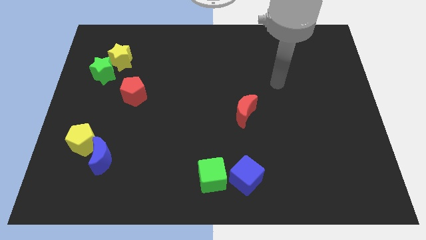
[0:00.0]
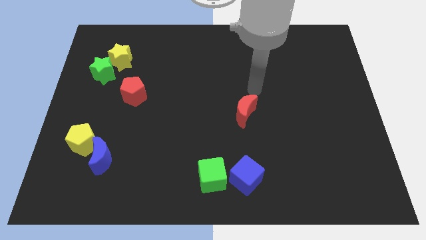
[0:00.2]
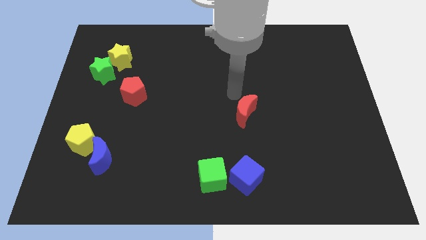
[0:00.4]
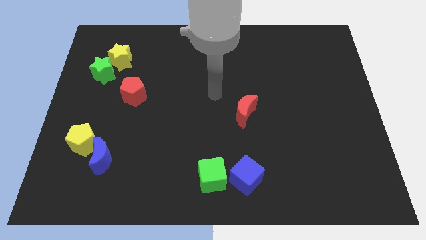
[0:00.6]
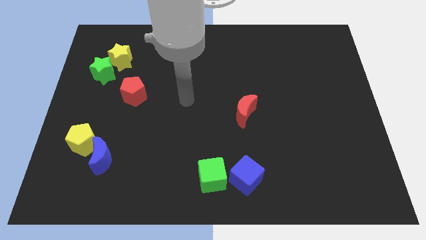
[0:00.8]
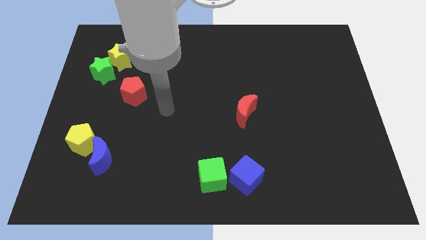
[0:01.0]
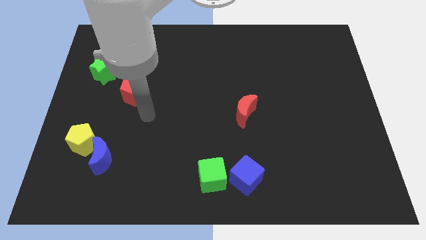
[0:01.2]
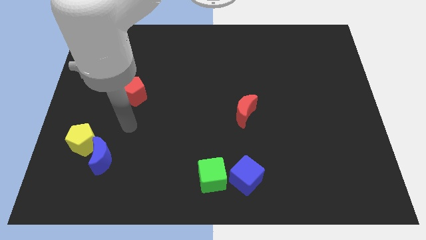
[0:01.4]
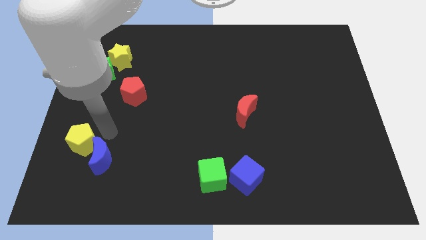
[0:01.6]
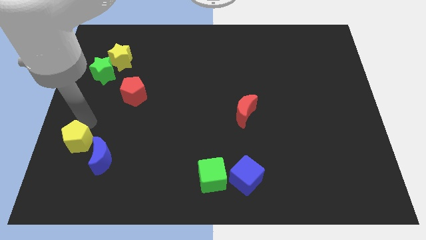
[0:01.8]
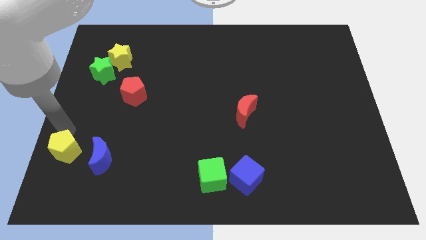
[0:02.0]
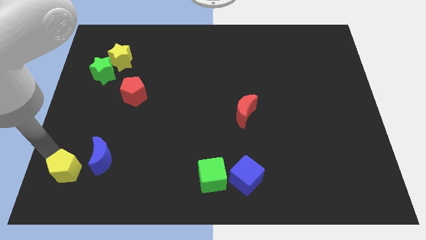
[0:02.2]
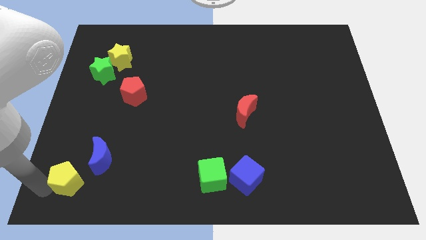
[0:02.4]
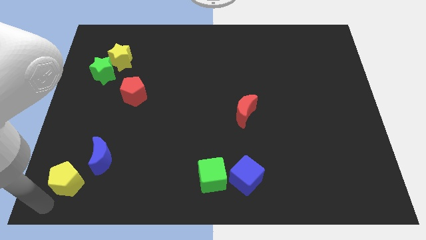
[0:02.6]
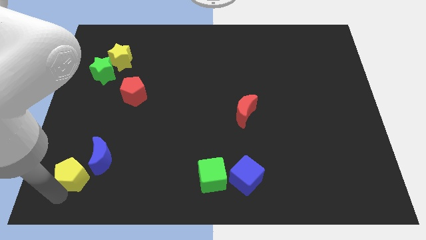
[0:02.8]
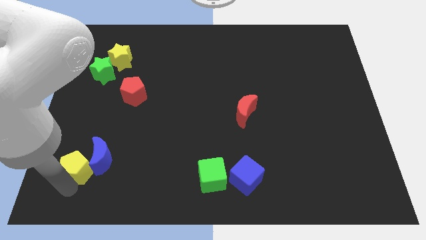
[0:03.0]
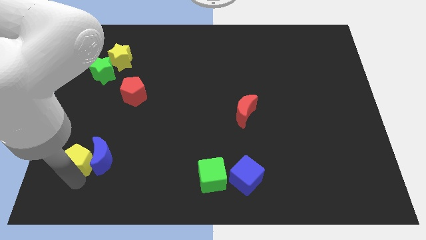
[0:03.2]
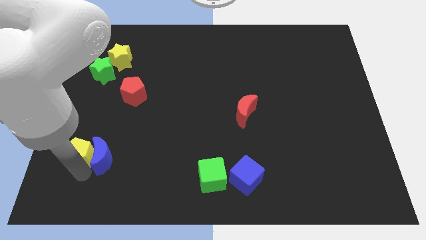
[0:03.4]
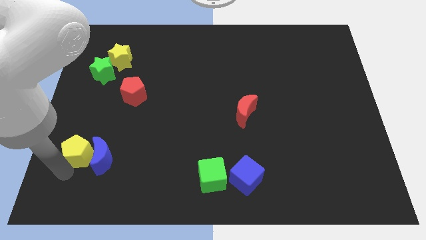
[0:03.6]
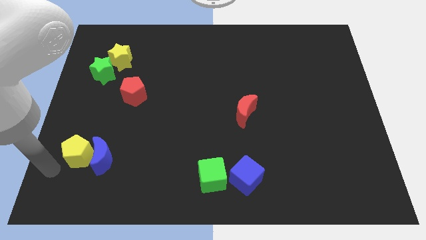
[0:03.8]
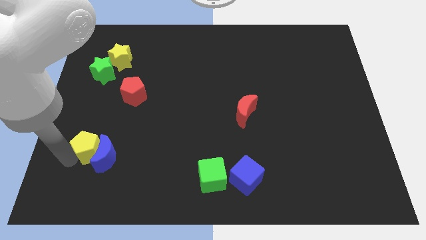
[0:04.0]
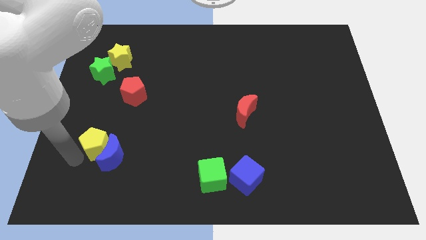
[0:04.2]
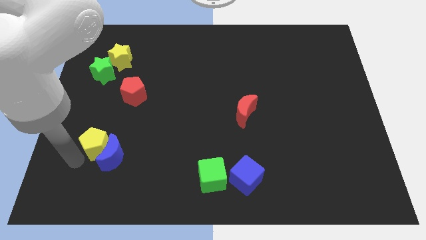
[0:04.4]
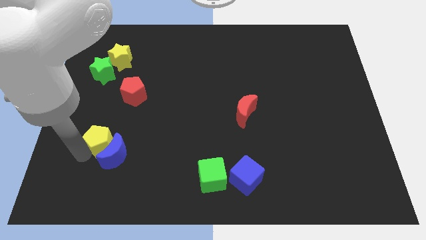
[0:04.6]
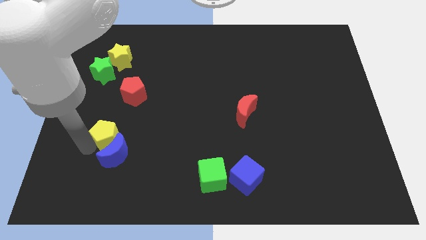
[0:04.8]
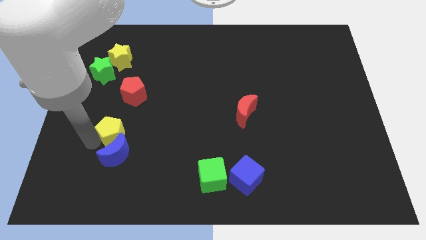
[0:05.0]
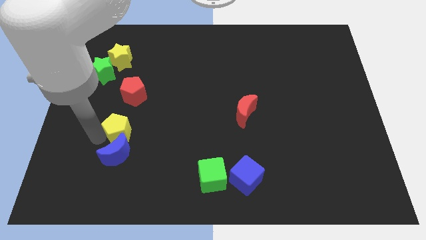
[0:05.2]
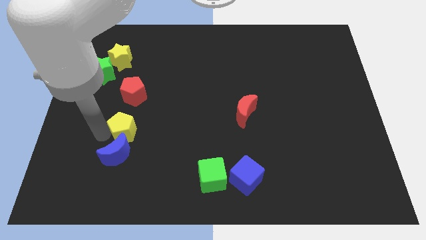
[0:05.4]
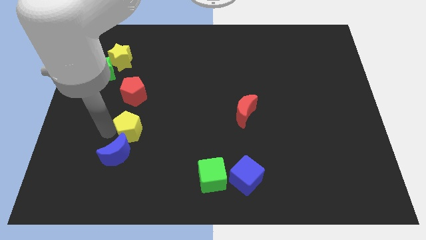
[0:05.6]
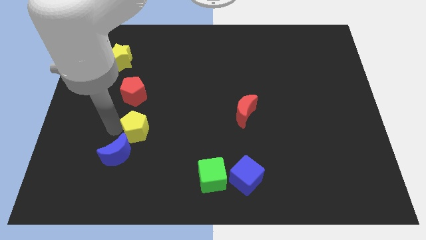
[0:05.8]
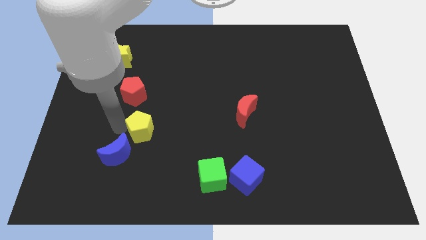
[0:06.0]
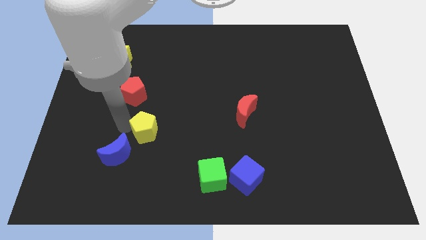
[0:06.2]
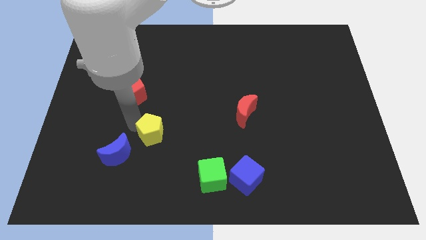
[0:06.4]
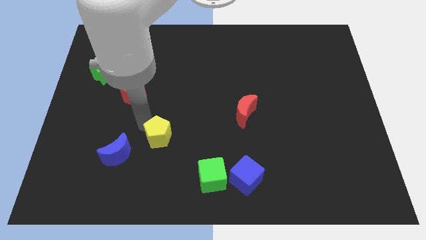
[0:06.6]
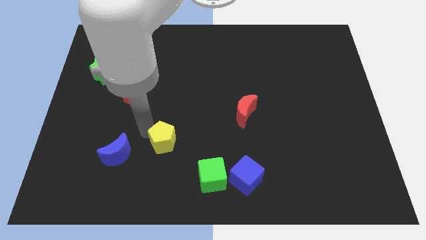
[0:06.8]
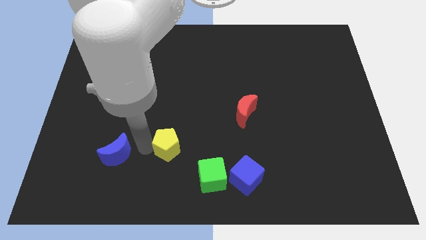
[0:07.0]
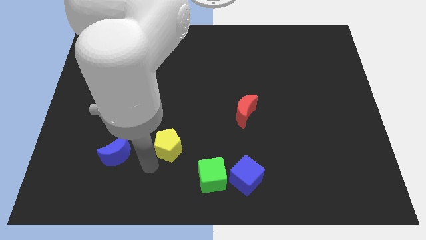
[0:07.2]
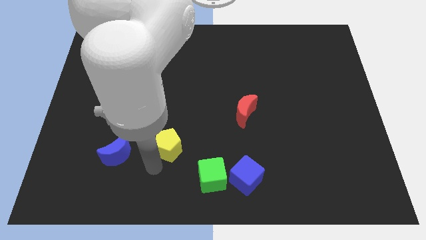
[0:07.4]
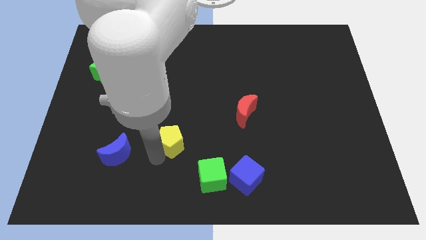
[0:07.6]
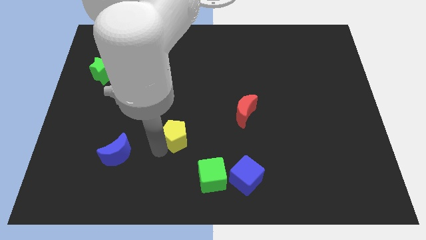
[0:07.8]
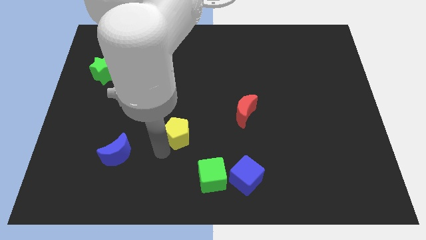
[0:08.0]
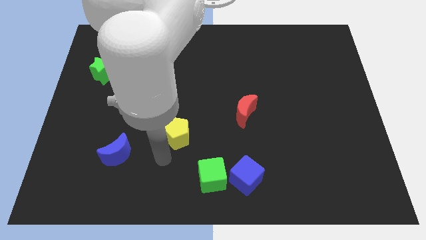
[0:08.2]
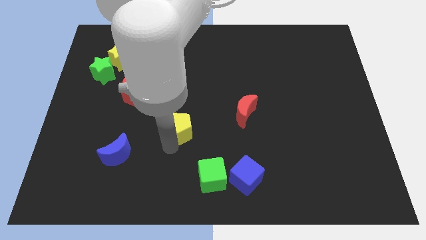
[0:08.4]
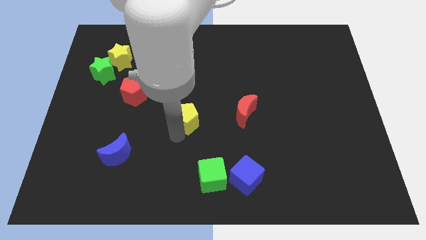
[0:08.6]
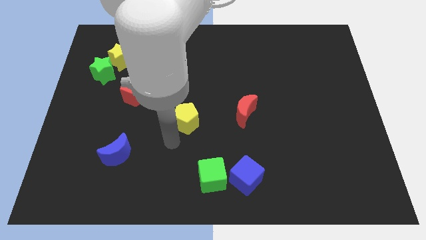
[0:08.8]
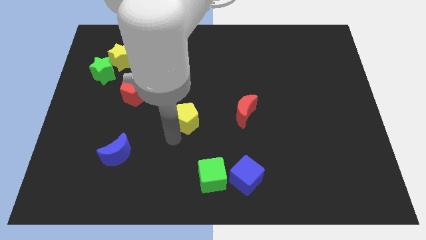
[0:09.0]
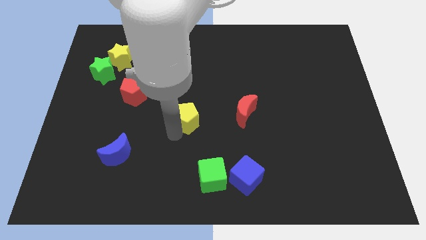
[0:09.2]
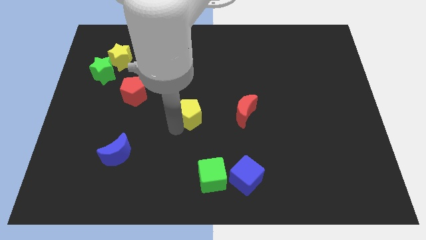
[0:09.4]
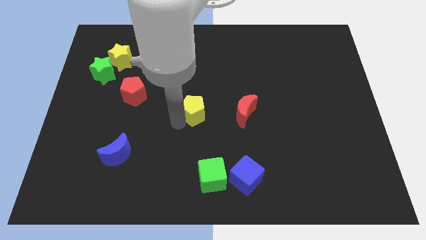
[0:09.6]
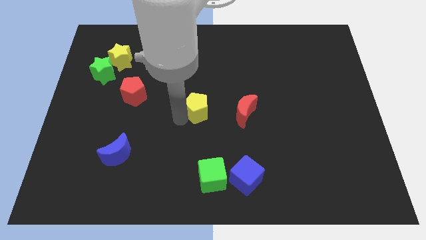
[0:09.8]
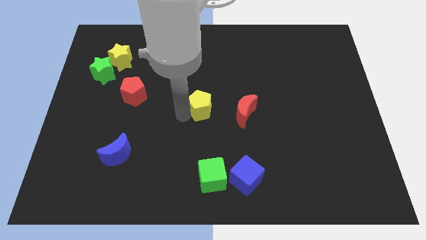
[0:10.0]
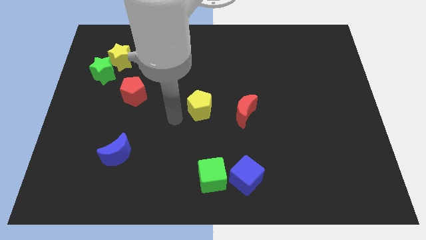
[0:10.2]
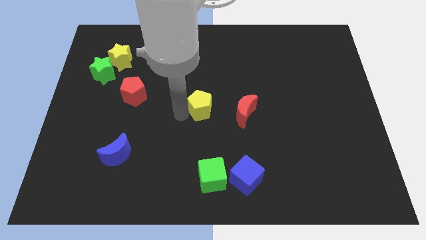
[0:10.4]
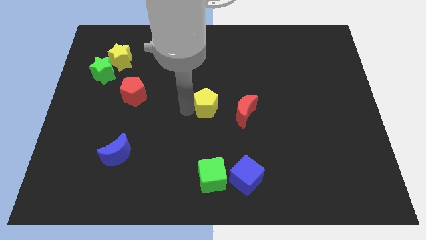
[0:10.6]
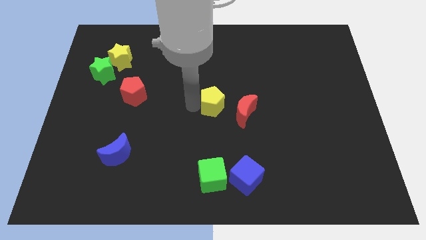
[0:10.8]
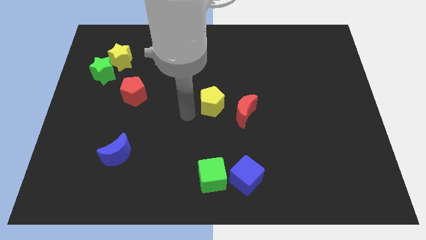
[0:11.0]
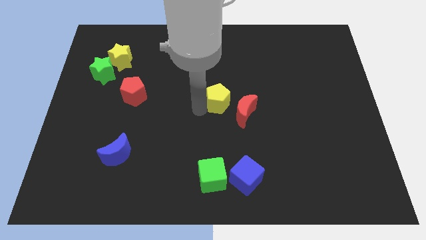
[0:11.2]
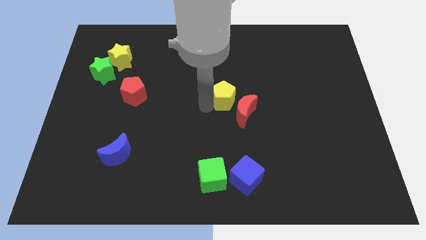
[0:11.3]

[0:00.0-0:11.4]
move the yellow pentagon to the top of the red moon

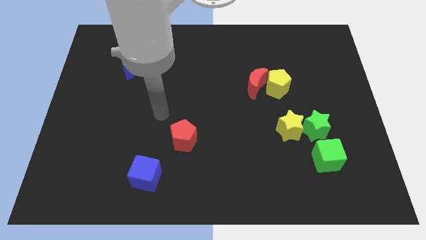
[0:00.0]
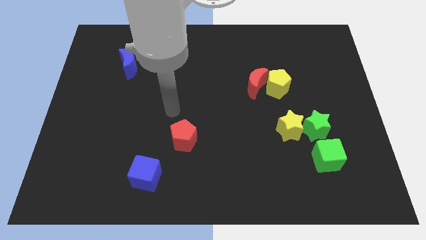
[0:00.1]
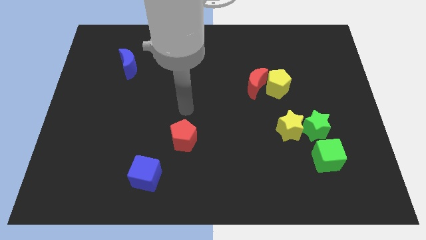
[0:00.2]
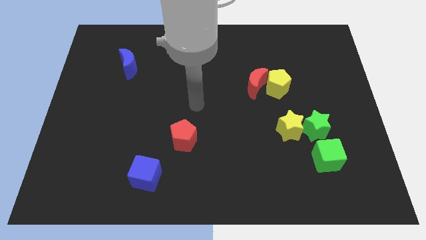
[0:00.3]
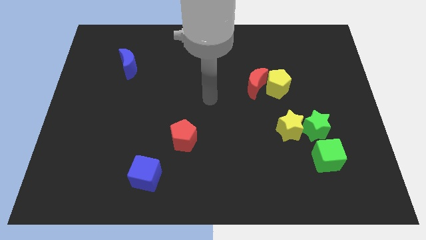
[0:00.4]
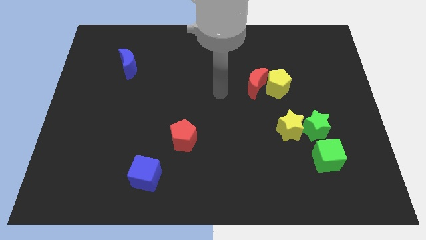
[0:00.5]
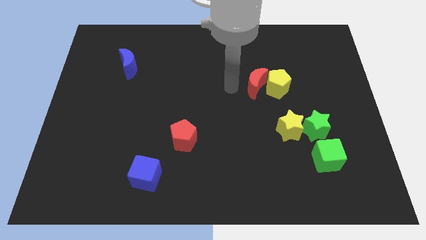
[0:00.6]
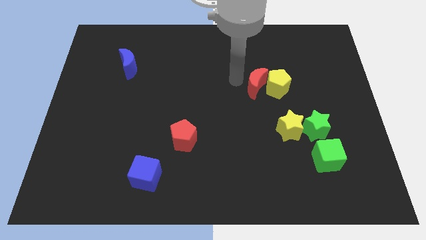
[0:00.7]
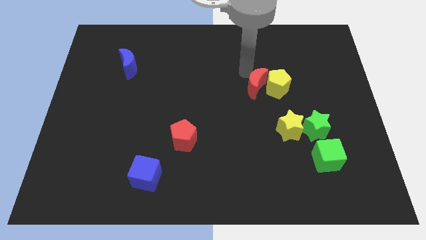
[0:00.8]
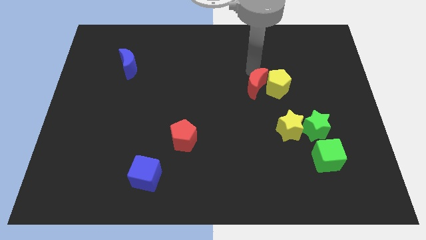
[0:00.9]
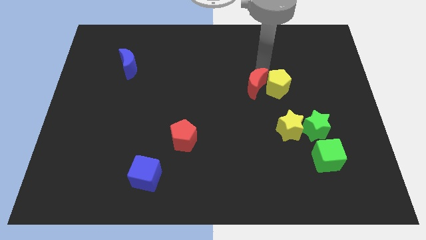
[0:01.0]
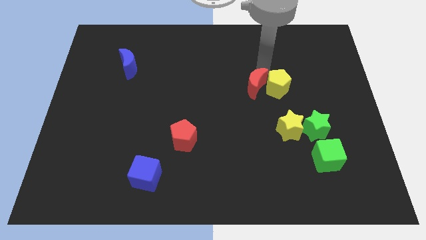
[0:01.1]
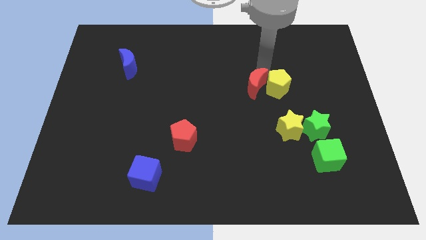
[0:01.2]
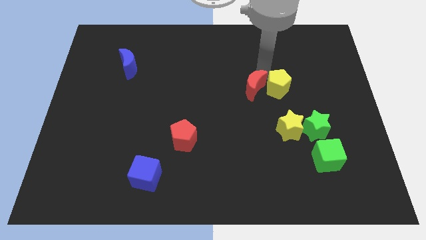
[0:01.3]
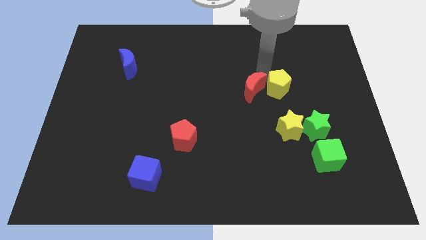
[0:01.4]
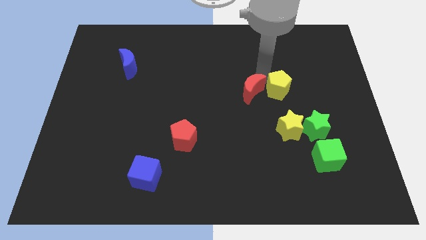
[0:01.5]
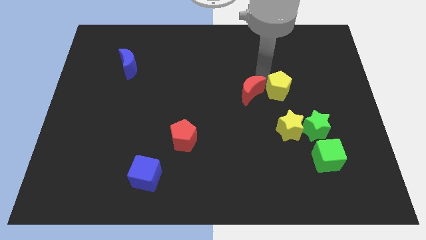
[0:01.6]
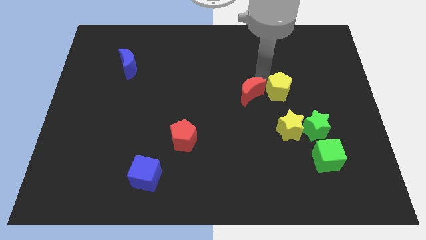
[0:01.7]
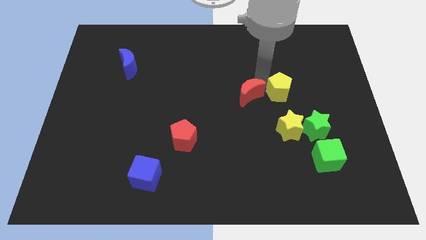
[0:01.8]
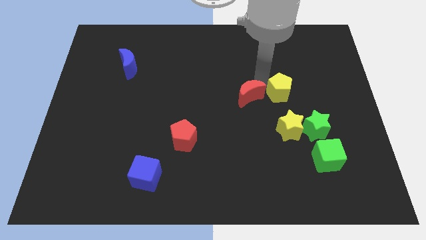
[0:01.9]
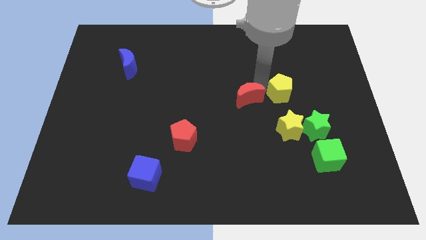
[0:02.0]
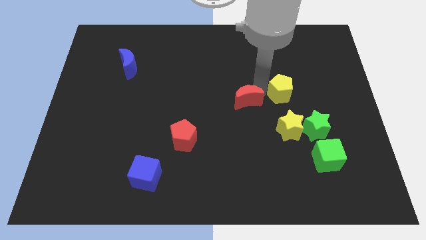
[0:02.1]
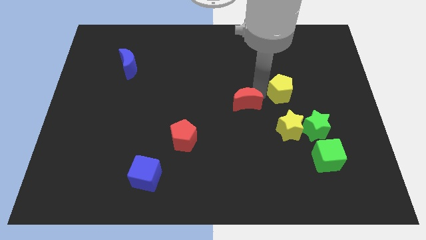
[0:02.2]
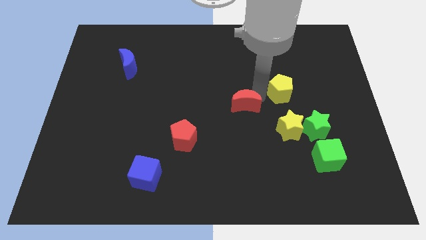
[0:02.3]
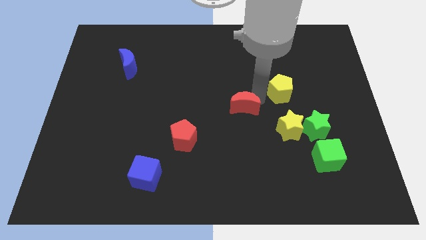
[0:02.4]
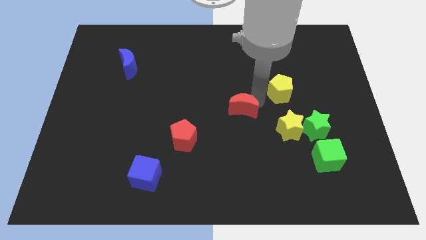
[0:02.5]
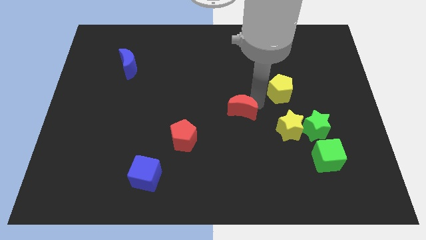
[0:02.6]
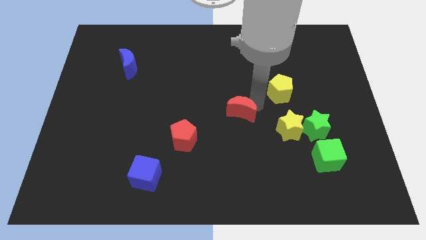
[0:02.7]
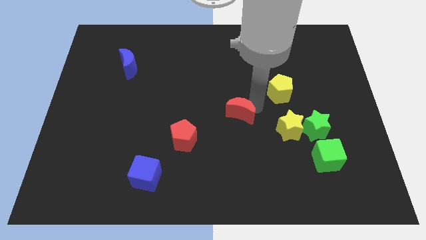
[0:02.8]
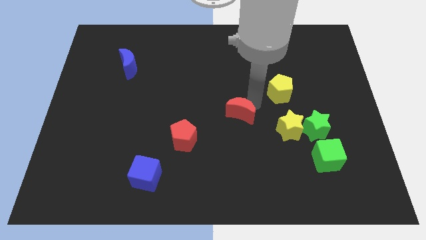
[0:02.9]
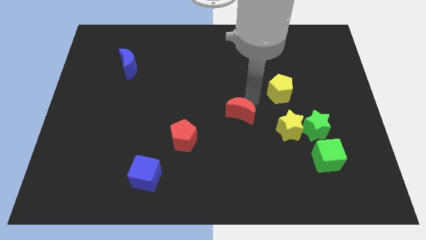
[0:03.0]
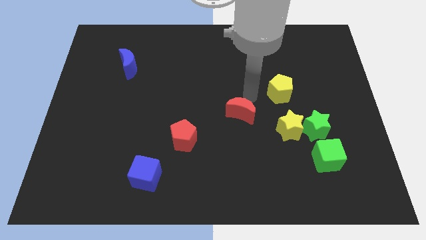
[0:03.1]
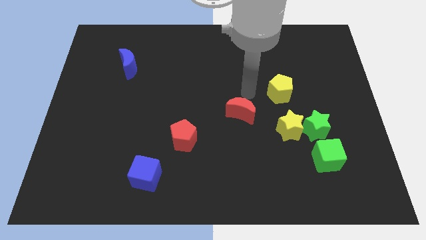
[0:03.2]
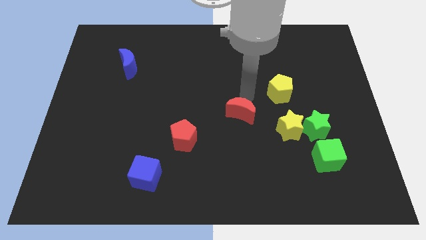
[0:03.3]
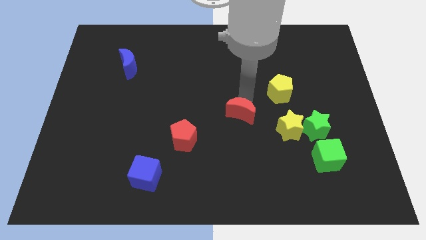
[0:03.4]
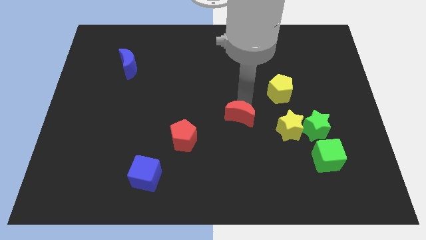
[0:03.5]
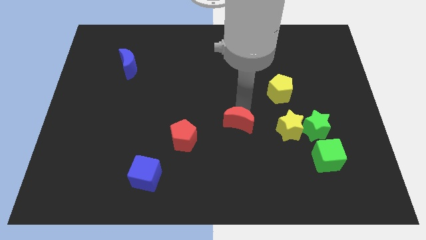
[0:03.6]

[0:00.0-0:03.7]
push the red moon right of the red pentagon
